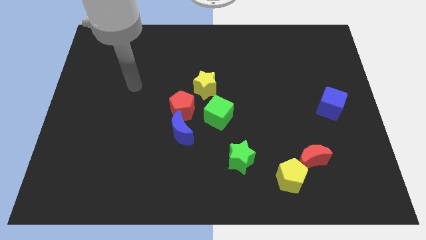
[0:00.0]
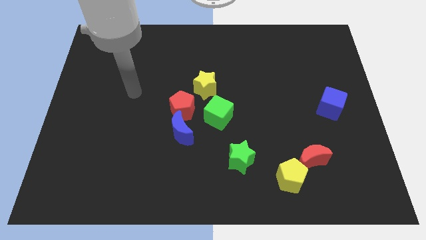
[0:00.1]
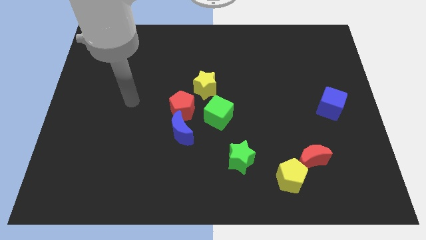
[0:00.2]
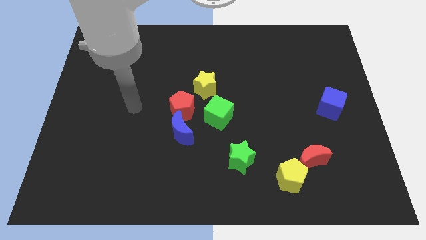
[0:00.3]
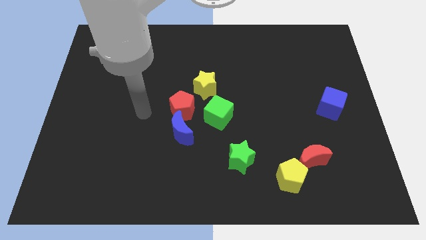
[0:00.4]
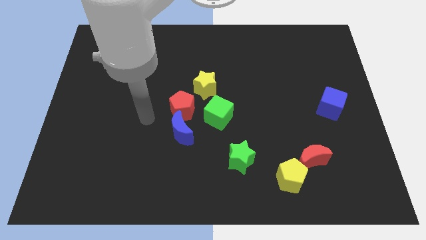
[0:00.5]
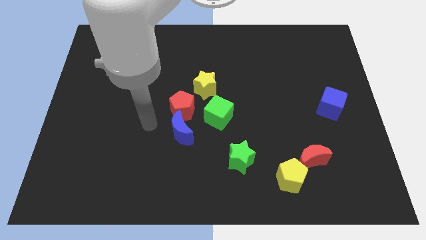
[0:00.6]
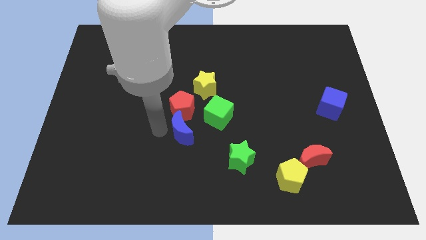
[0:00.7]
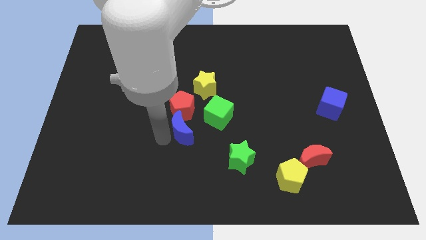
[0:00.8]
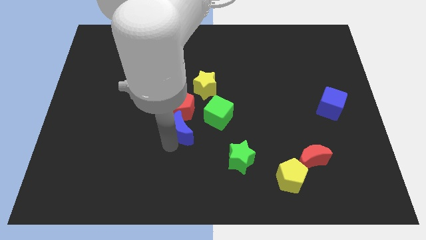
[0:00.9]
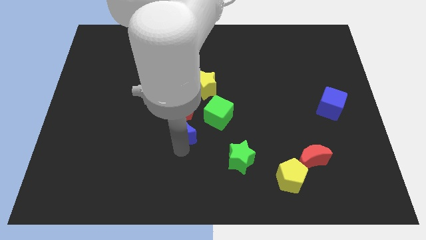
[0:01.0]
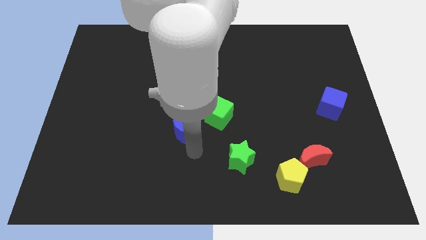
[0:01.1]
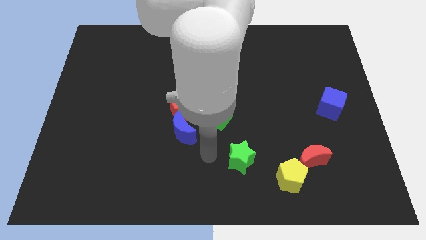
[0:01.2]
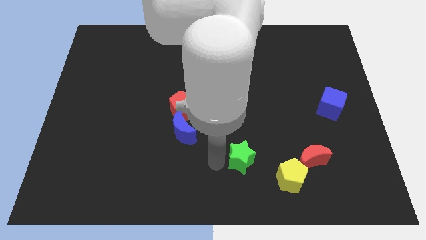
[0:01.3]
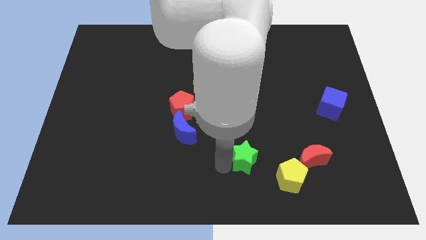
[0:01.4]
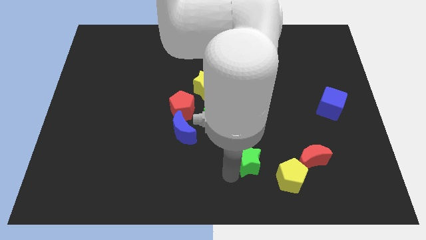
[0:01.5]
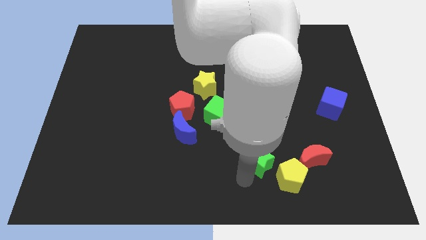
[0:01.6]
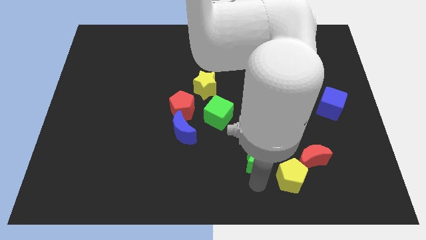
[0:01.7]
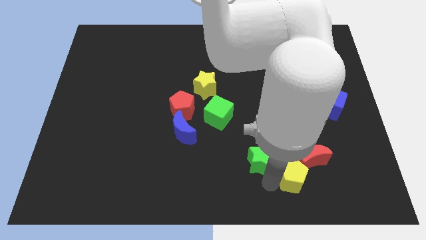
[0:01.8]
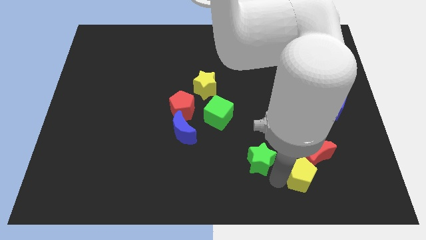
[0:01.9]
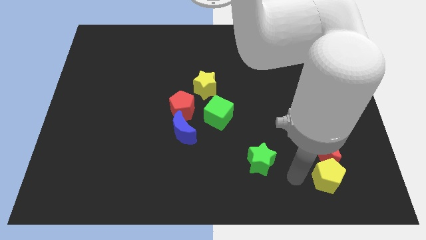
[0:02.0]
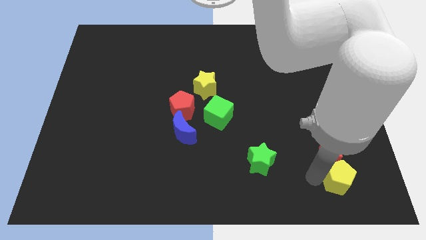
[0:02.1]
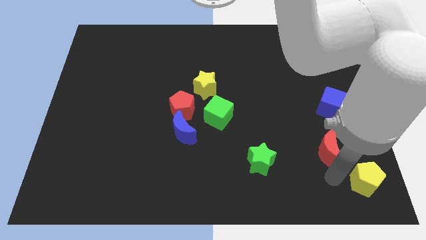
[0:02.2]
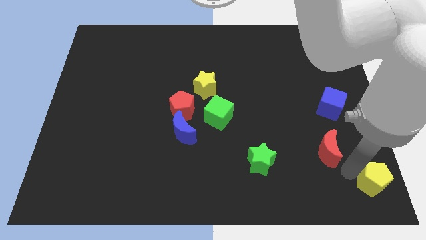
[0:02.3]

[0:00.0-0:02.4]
pull the red moon apart from the yellow pentagon

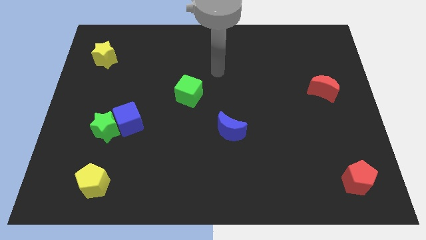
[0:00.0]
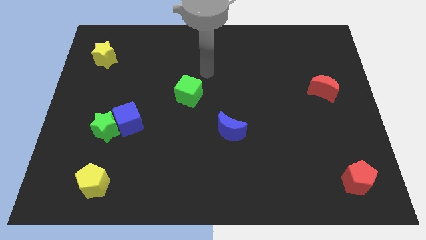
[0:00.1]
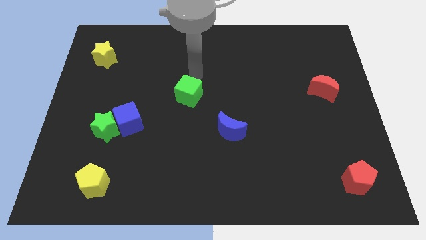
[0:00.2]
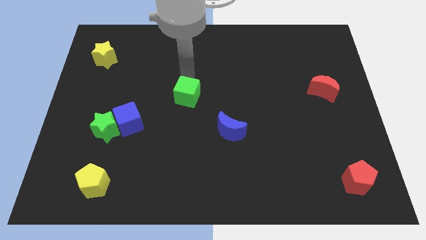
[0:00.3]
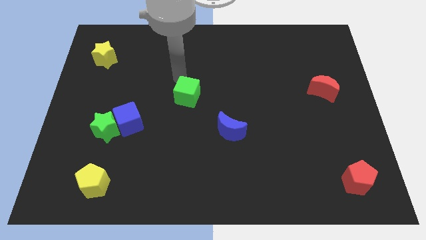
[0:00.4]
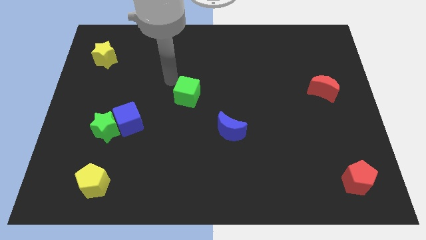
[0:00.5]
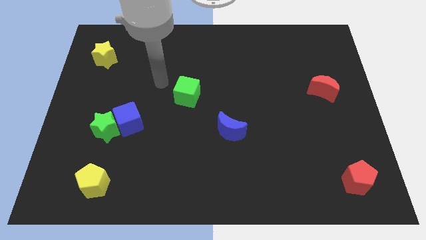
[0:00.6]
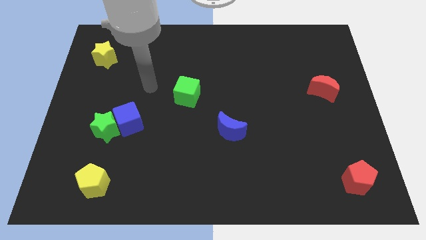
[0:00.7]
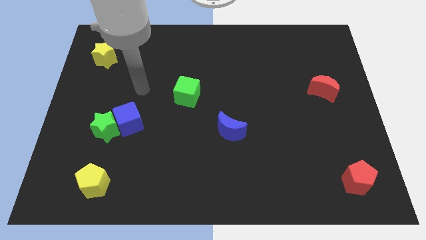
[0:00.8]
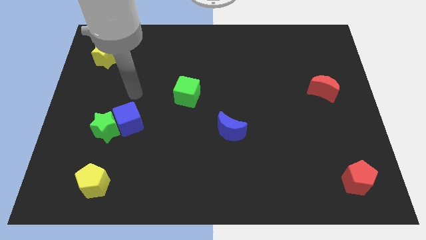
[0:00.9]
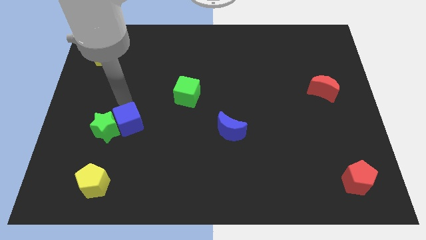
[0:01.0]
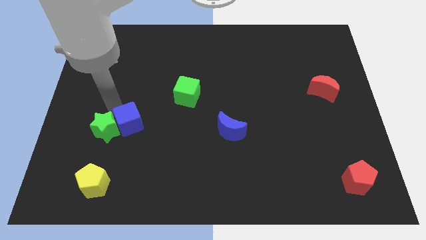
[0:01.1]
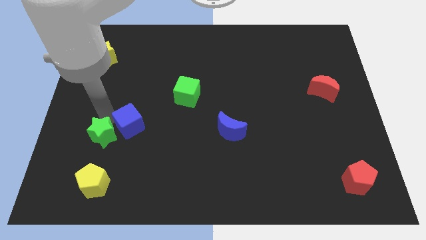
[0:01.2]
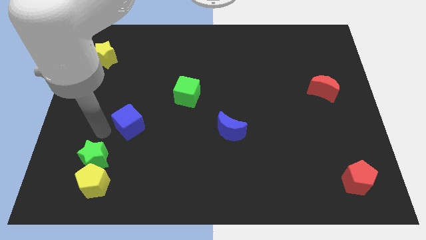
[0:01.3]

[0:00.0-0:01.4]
pull the blue cube apart from the green star

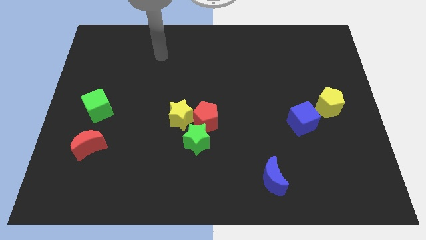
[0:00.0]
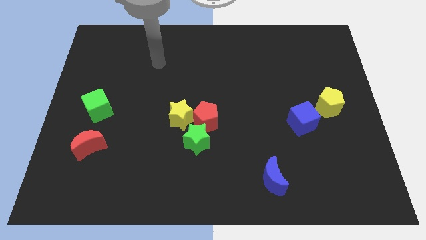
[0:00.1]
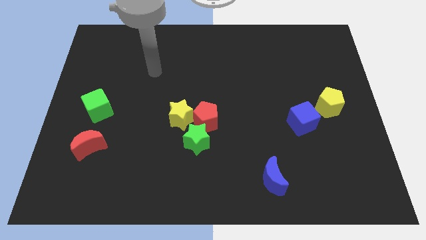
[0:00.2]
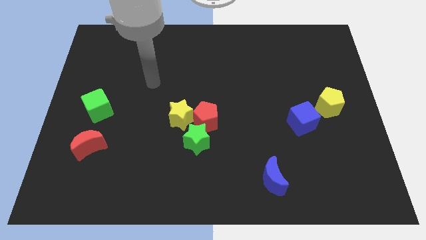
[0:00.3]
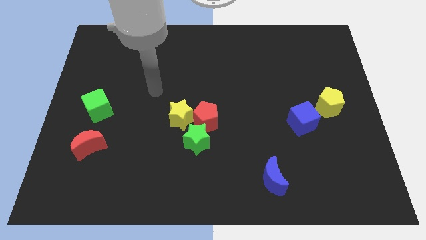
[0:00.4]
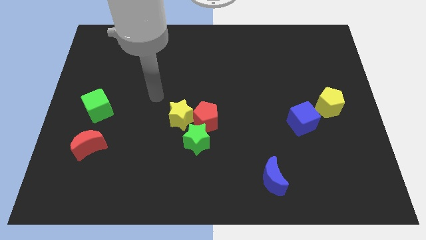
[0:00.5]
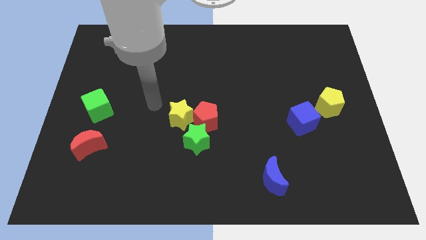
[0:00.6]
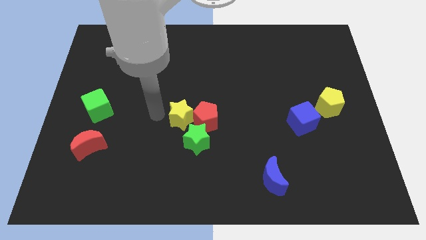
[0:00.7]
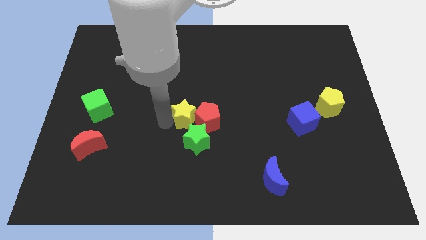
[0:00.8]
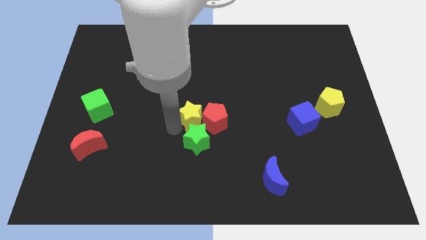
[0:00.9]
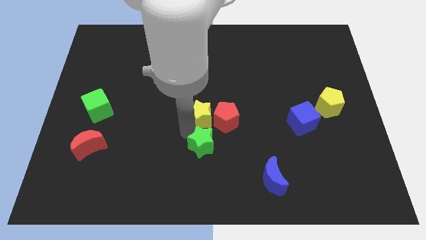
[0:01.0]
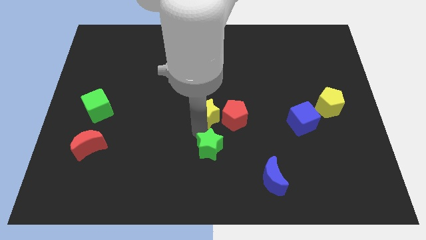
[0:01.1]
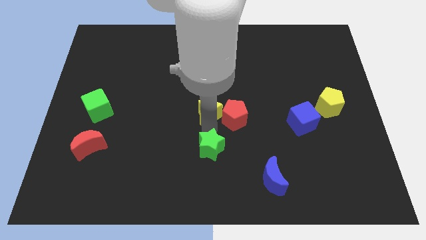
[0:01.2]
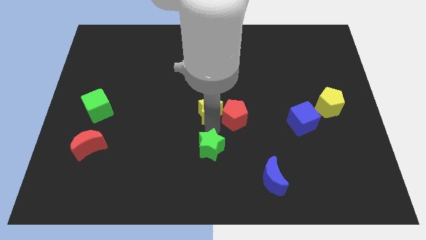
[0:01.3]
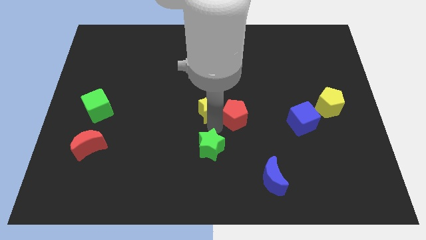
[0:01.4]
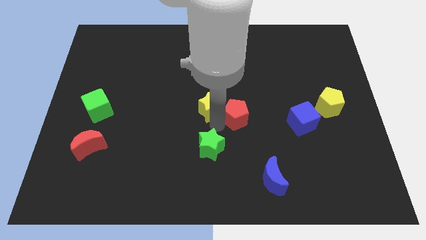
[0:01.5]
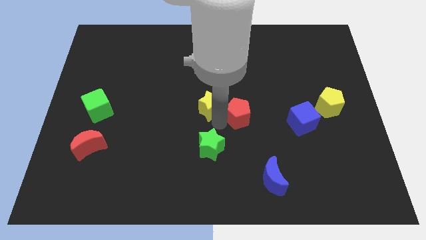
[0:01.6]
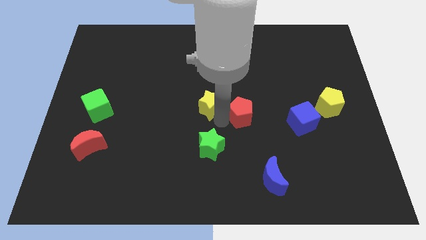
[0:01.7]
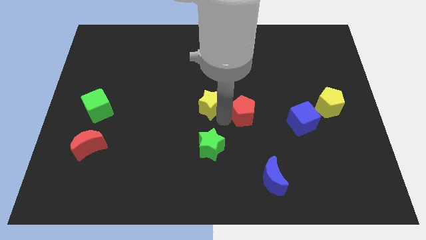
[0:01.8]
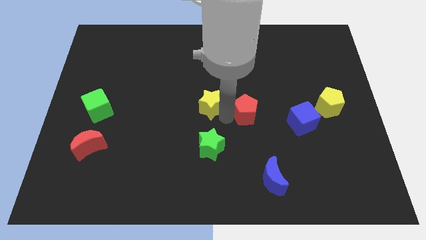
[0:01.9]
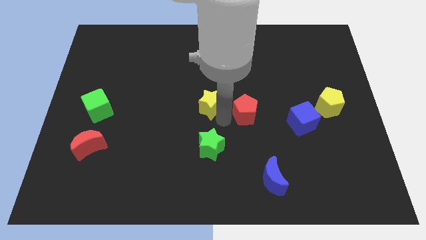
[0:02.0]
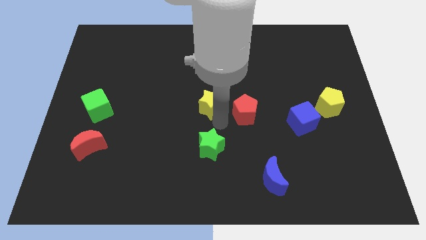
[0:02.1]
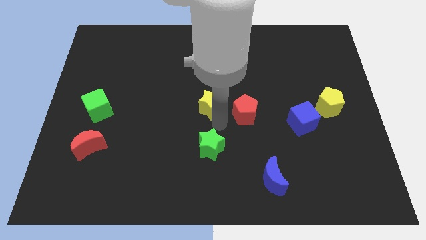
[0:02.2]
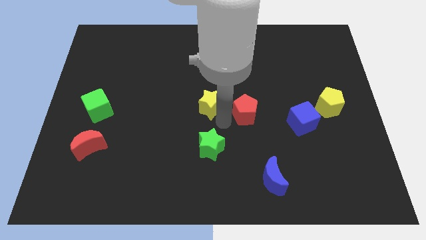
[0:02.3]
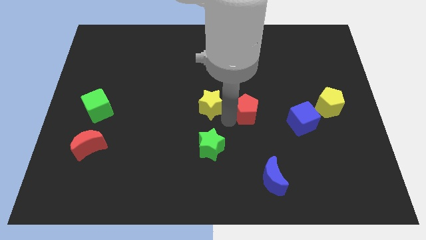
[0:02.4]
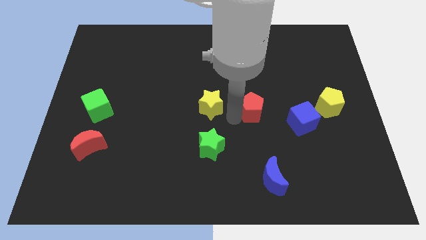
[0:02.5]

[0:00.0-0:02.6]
move the red pentagon away from the green star and yellow star

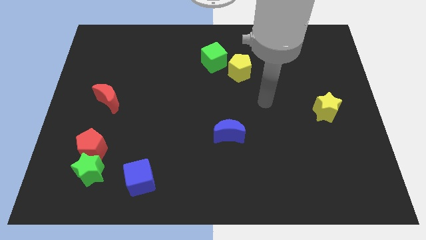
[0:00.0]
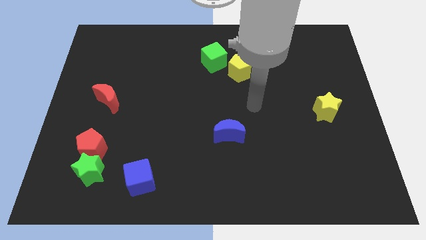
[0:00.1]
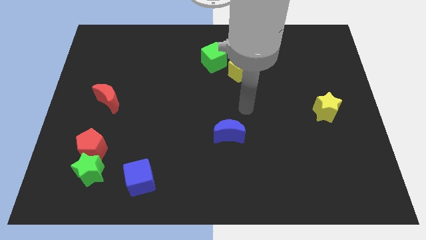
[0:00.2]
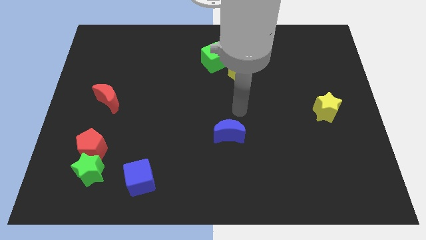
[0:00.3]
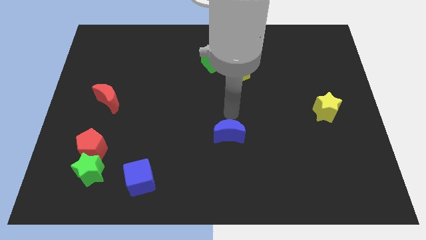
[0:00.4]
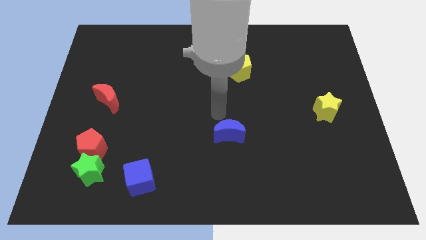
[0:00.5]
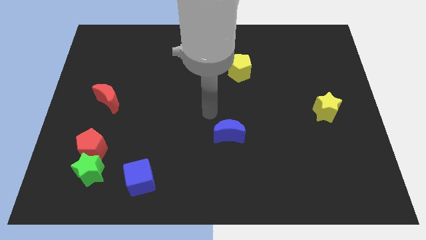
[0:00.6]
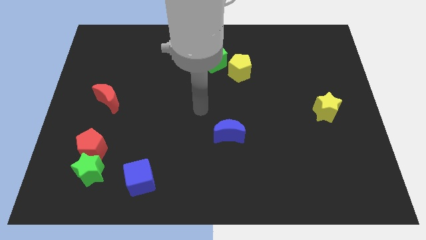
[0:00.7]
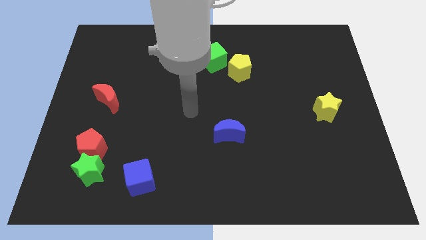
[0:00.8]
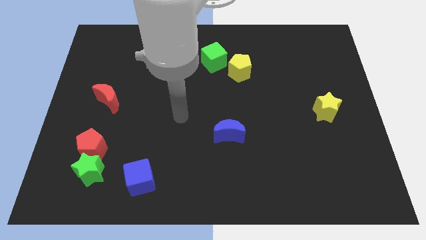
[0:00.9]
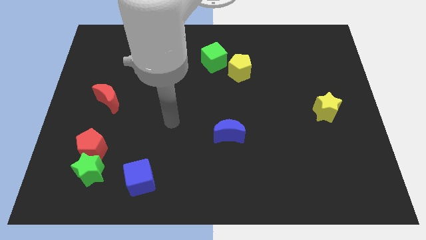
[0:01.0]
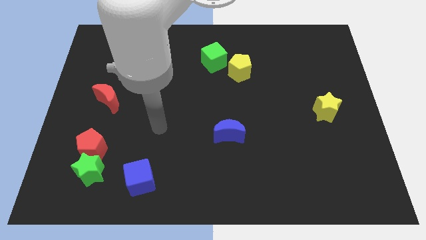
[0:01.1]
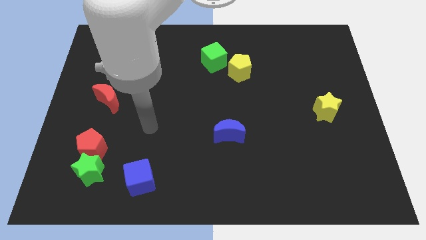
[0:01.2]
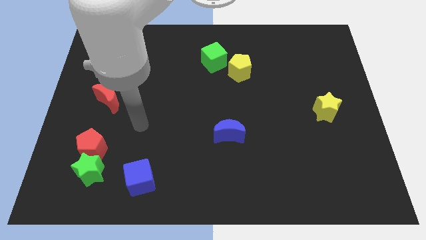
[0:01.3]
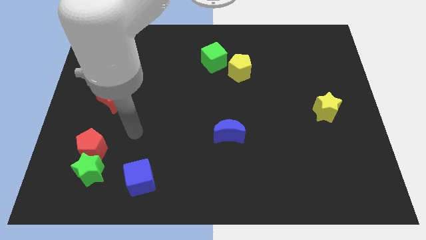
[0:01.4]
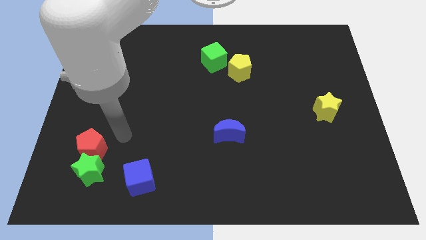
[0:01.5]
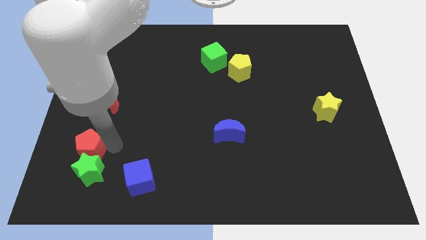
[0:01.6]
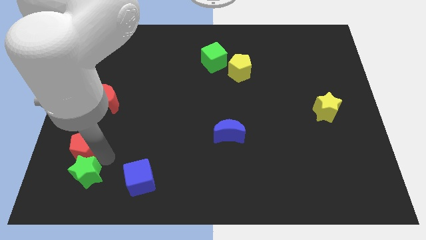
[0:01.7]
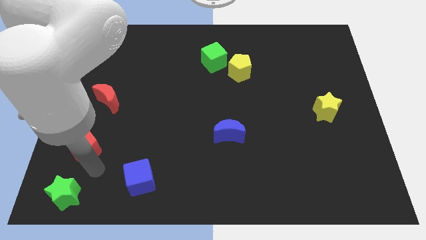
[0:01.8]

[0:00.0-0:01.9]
separate the red pentagon from the green star

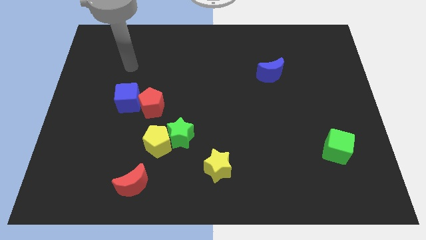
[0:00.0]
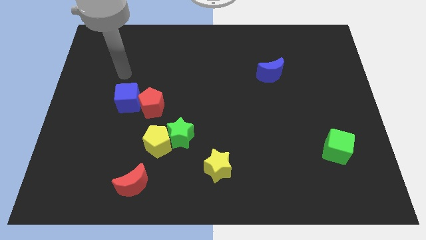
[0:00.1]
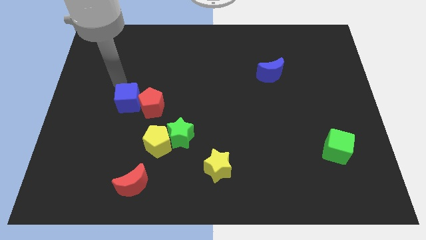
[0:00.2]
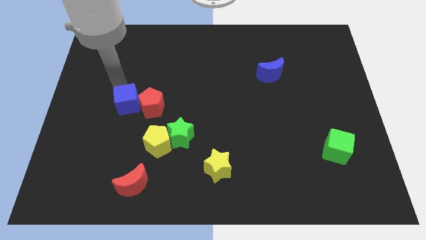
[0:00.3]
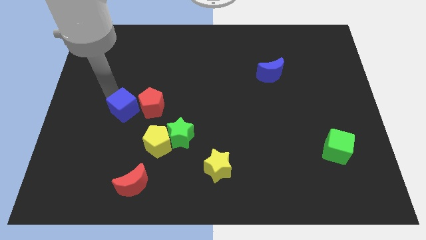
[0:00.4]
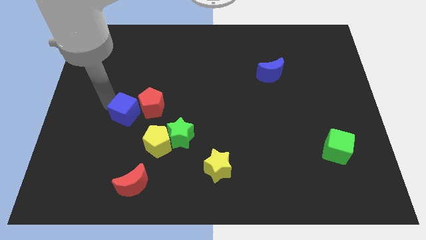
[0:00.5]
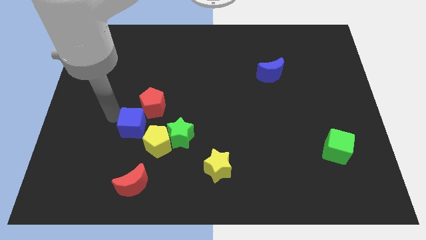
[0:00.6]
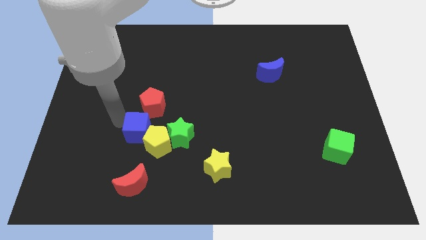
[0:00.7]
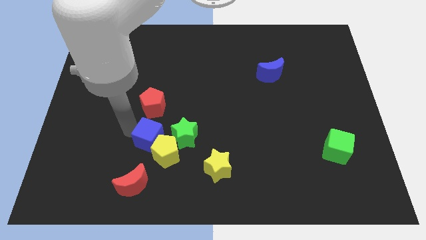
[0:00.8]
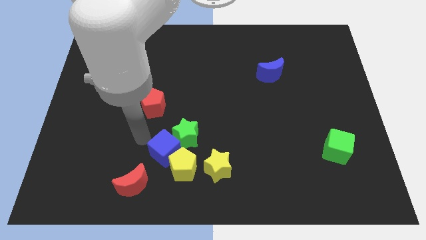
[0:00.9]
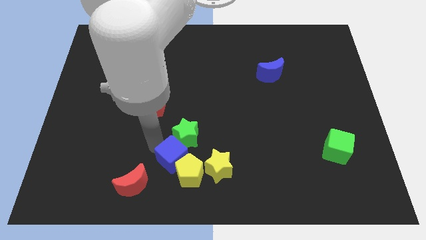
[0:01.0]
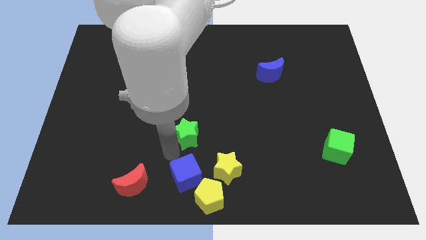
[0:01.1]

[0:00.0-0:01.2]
pull the green star apart from the yellow pentagon
